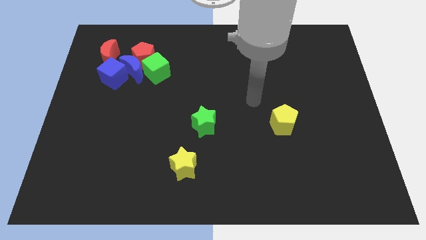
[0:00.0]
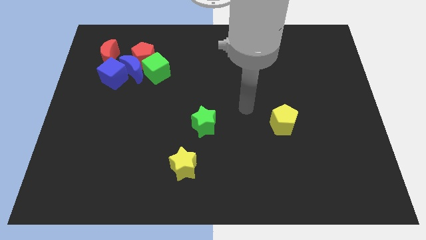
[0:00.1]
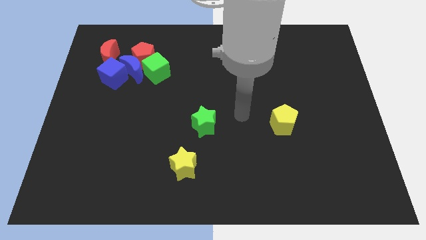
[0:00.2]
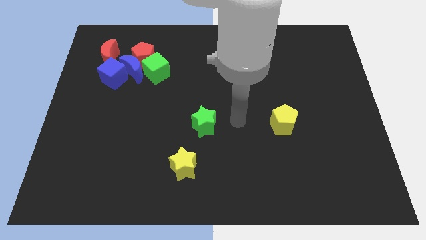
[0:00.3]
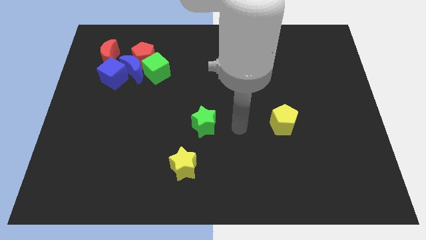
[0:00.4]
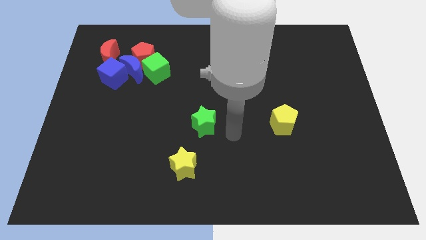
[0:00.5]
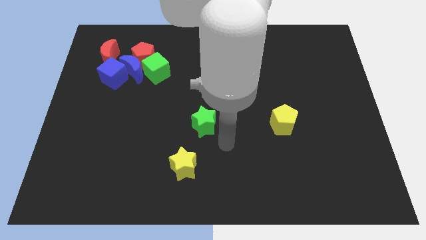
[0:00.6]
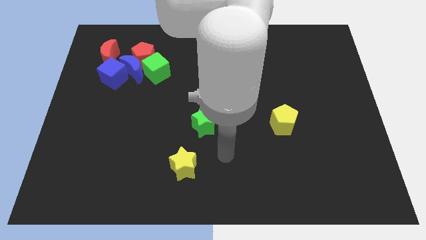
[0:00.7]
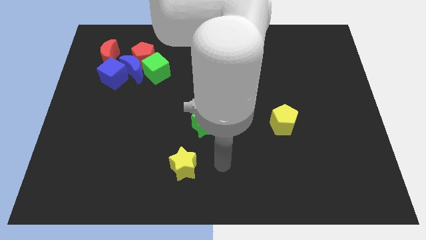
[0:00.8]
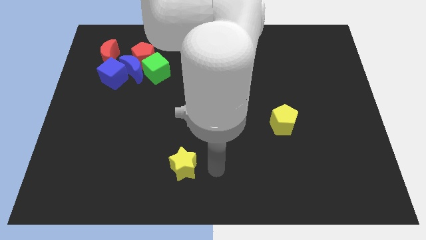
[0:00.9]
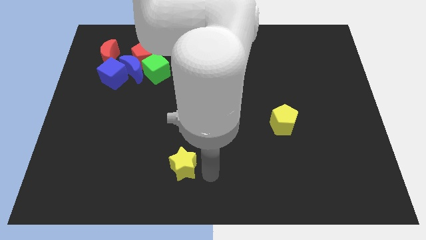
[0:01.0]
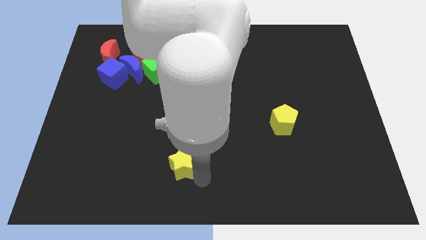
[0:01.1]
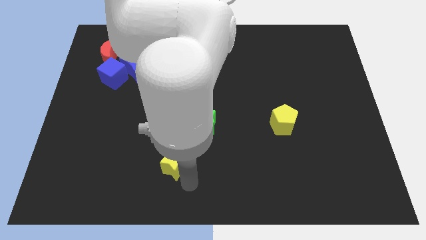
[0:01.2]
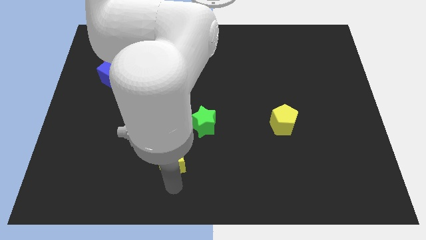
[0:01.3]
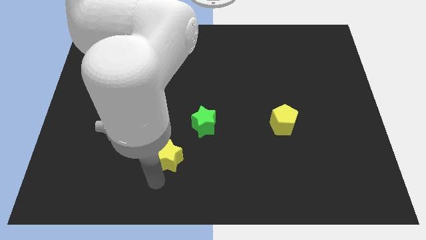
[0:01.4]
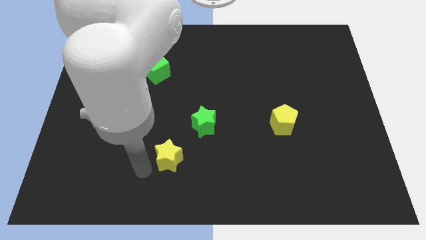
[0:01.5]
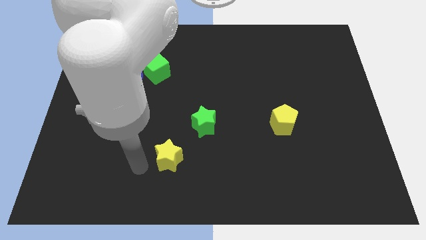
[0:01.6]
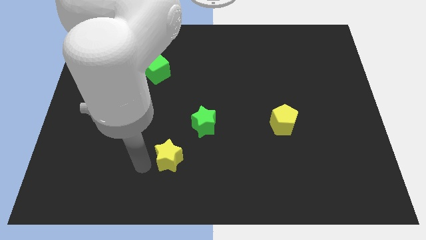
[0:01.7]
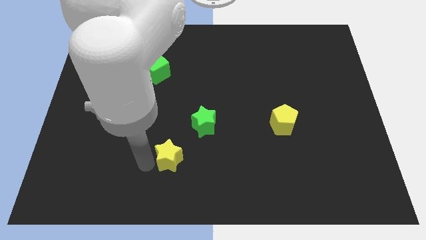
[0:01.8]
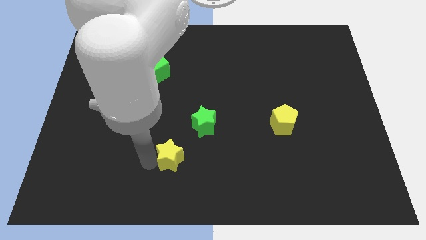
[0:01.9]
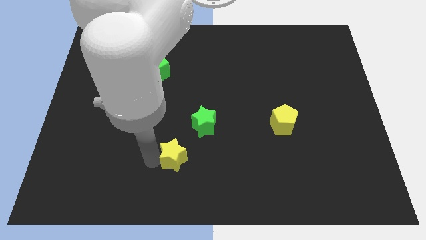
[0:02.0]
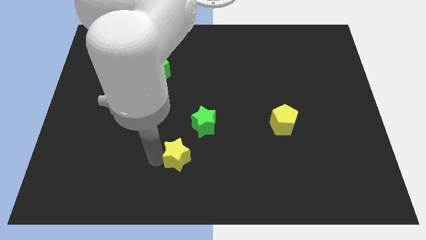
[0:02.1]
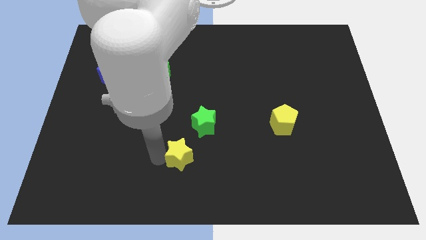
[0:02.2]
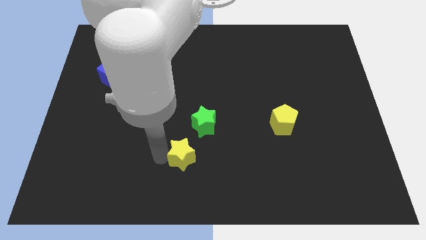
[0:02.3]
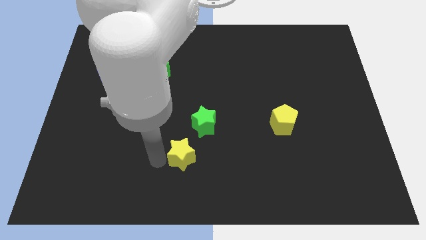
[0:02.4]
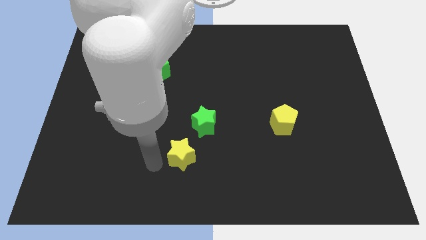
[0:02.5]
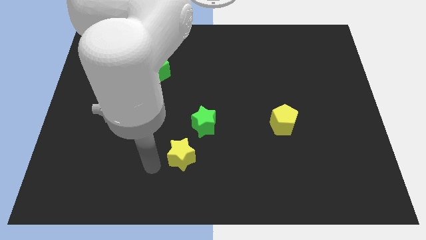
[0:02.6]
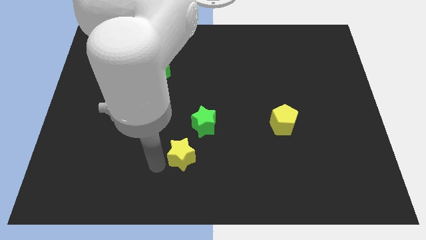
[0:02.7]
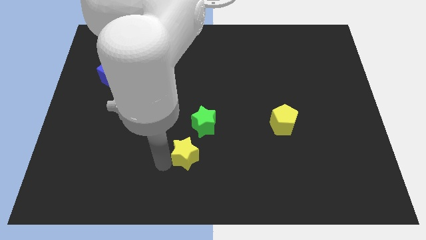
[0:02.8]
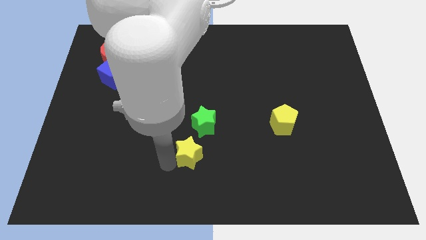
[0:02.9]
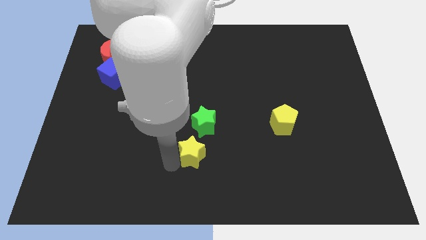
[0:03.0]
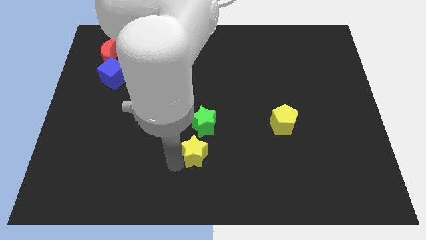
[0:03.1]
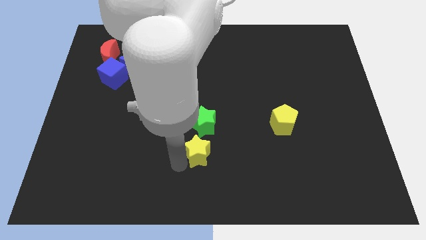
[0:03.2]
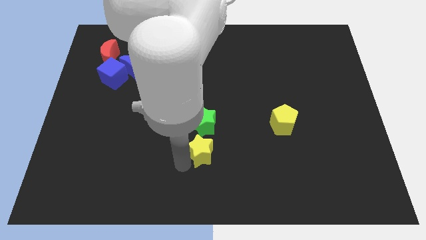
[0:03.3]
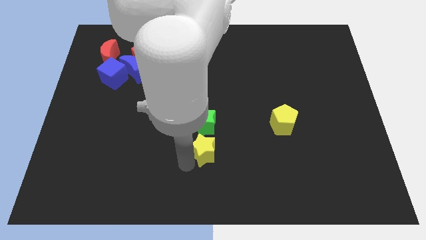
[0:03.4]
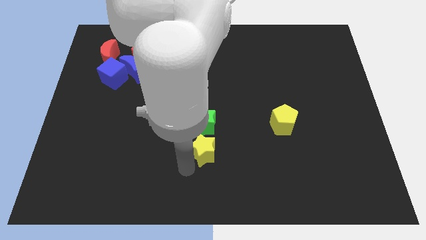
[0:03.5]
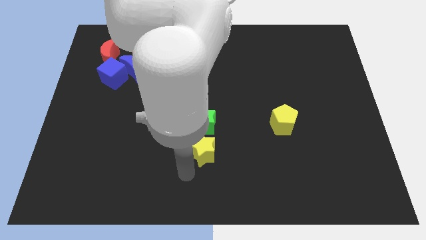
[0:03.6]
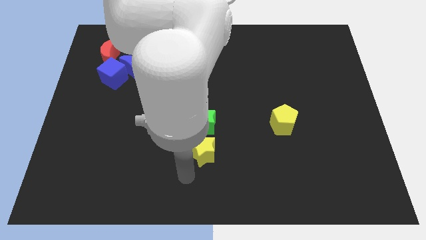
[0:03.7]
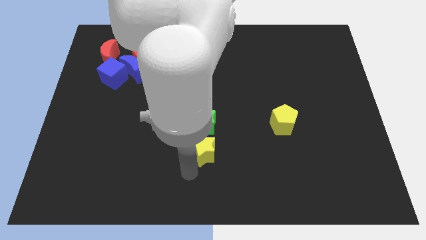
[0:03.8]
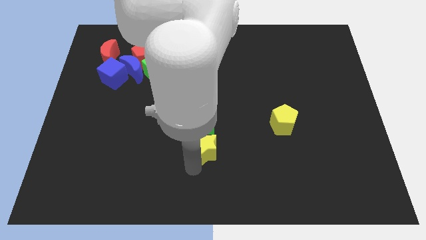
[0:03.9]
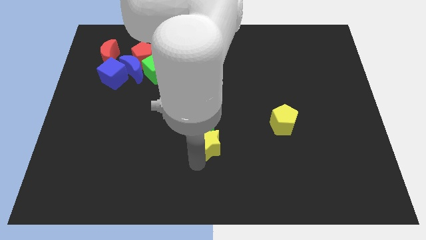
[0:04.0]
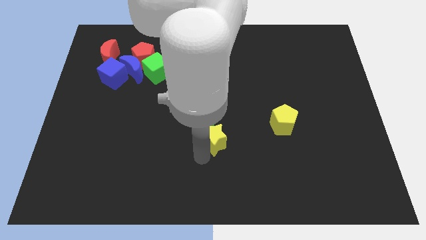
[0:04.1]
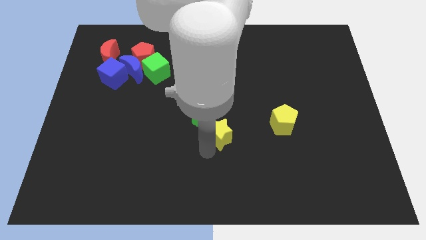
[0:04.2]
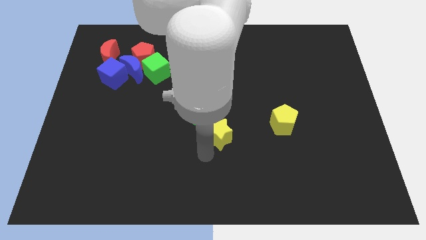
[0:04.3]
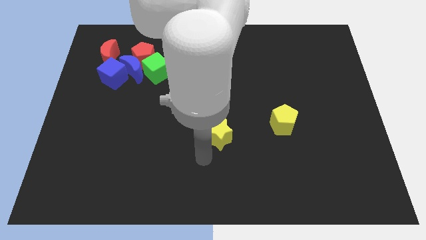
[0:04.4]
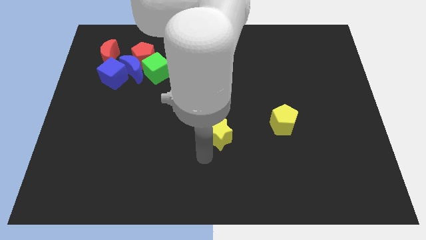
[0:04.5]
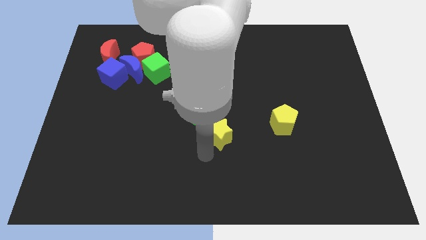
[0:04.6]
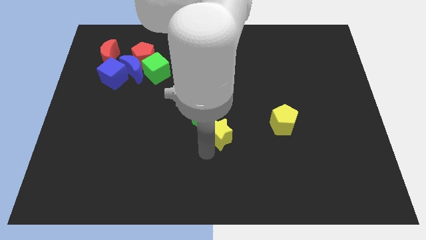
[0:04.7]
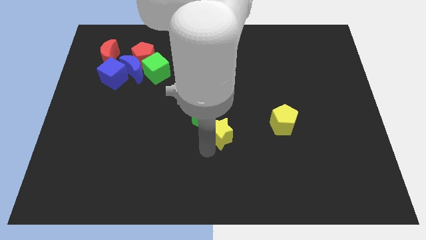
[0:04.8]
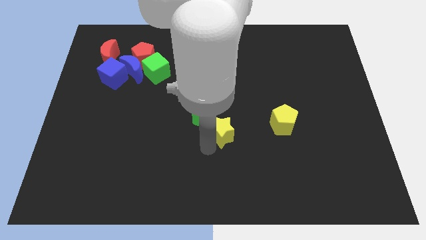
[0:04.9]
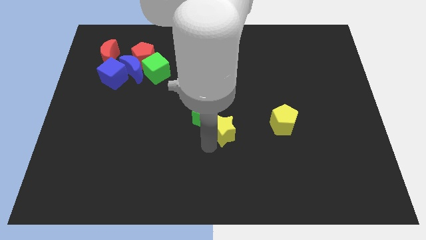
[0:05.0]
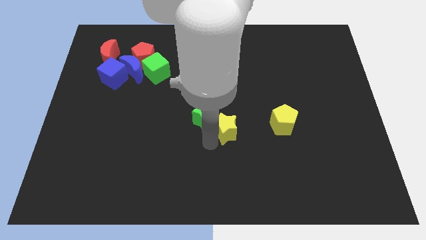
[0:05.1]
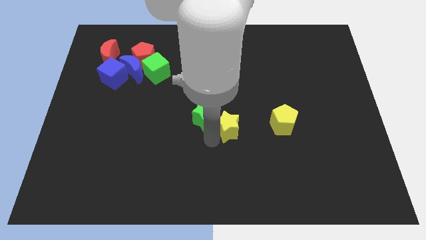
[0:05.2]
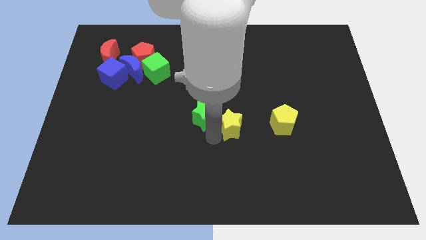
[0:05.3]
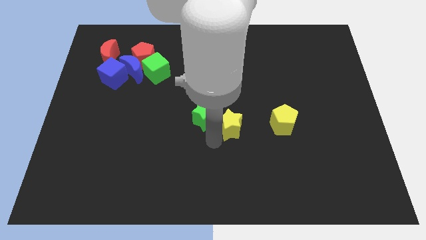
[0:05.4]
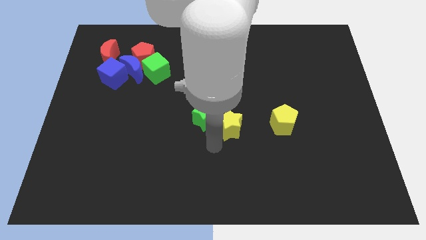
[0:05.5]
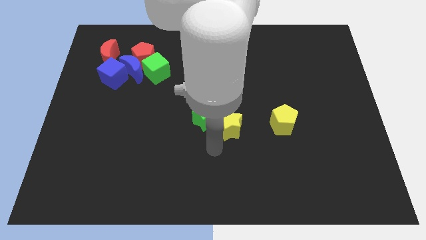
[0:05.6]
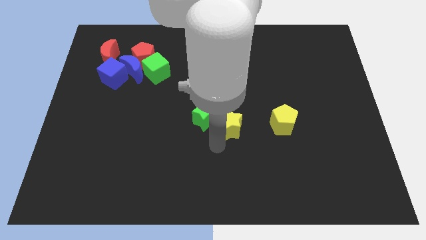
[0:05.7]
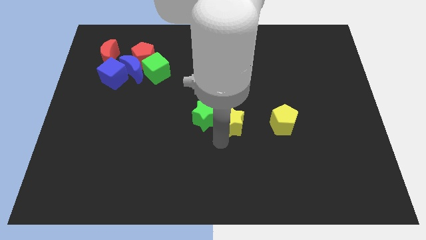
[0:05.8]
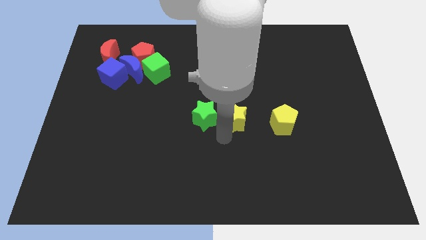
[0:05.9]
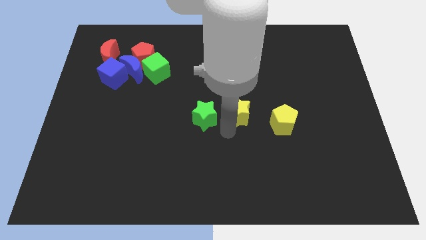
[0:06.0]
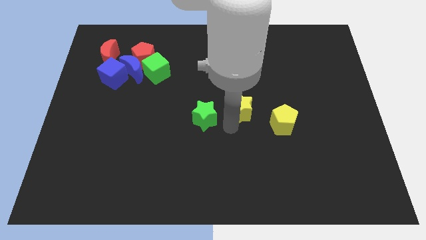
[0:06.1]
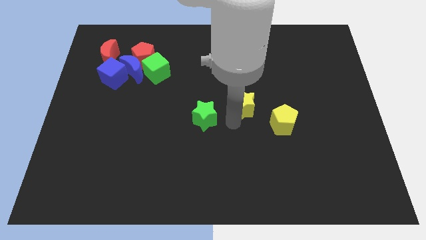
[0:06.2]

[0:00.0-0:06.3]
push the yellow star diagonally up and to the right

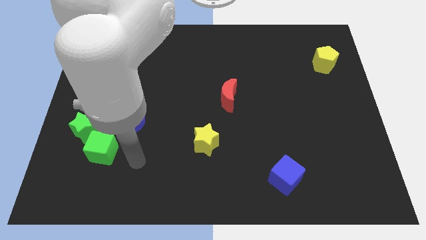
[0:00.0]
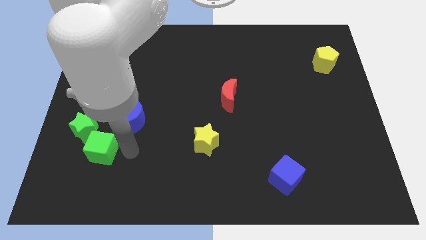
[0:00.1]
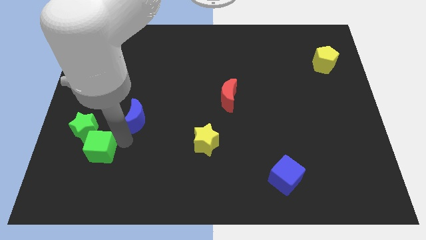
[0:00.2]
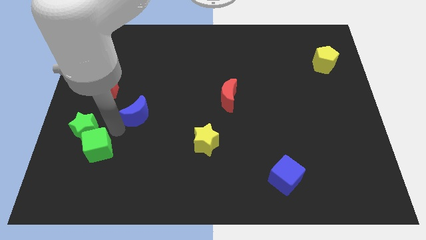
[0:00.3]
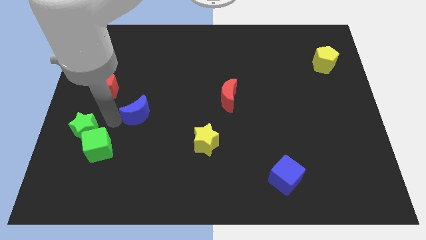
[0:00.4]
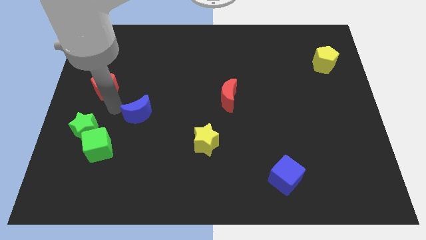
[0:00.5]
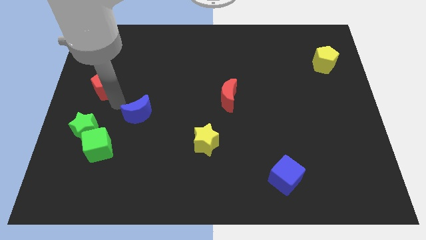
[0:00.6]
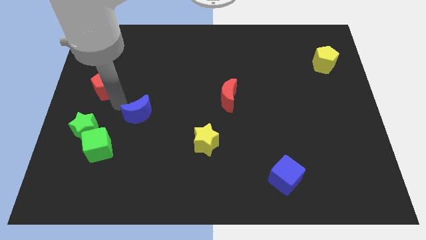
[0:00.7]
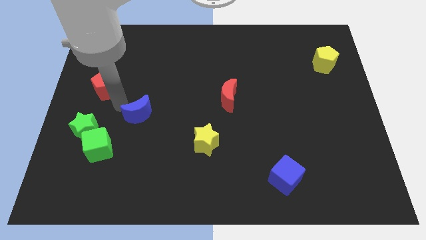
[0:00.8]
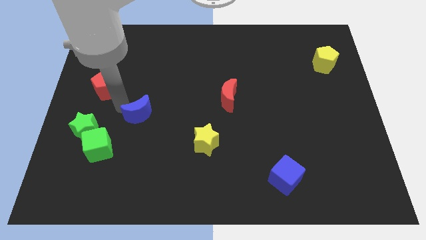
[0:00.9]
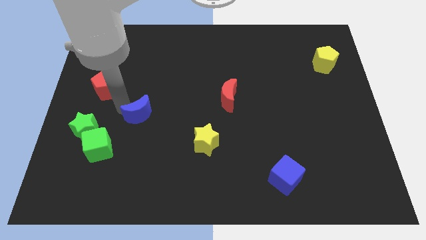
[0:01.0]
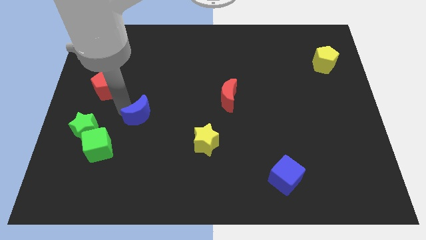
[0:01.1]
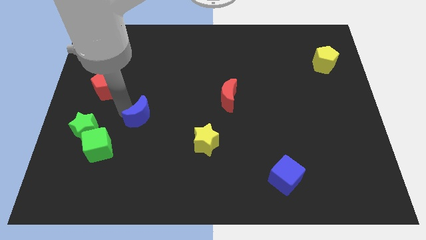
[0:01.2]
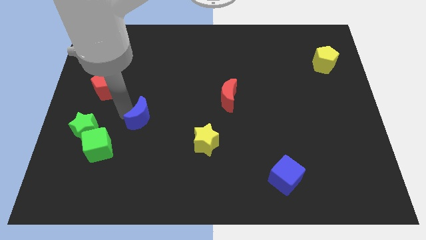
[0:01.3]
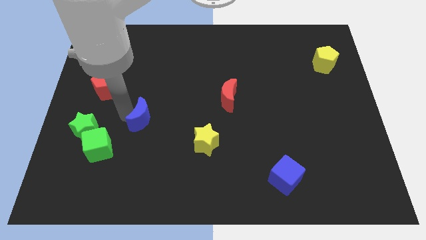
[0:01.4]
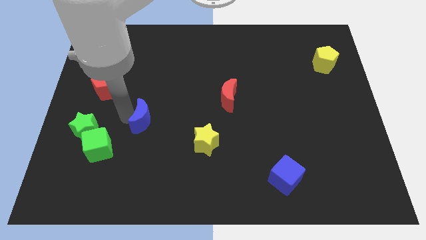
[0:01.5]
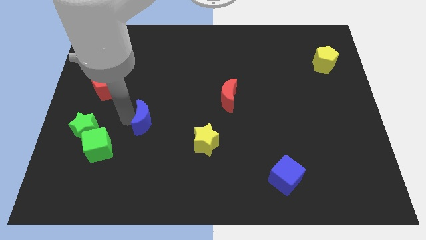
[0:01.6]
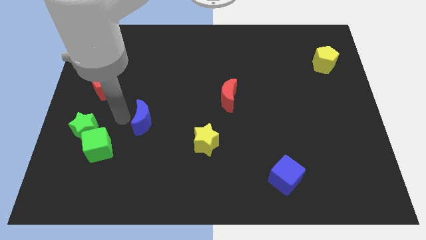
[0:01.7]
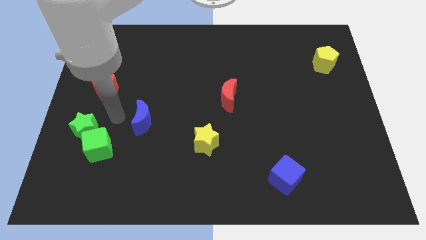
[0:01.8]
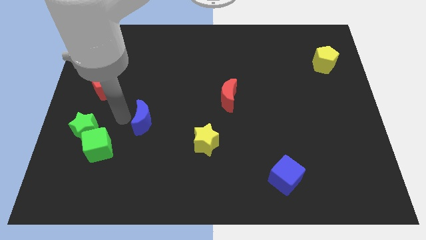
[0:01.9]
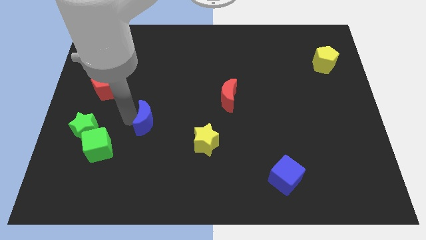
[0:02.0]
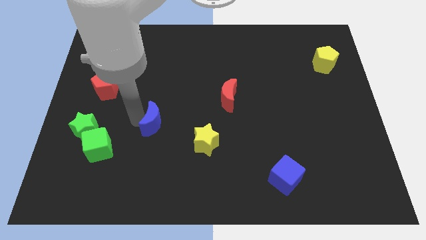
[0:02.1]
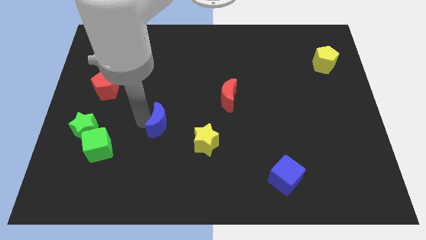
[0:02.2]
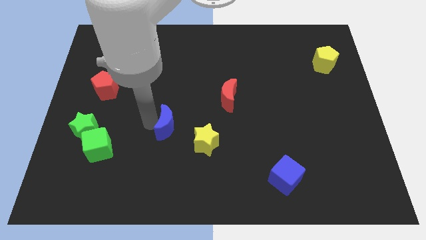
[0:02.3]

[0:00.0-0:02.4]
move the blue moon right a little
